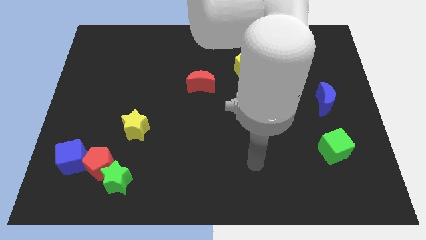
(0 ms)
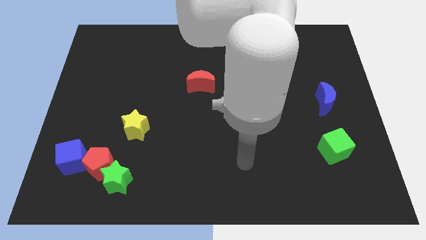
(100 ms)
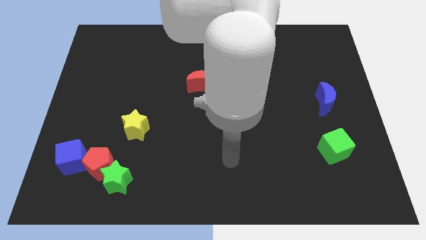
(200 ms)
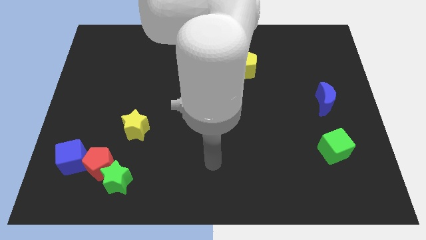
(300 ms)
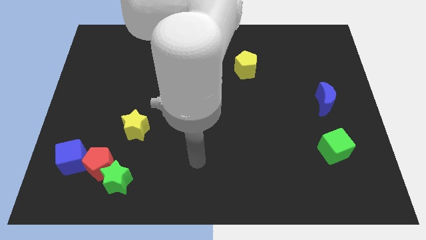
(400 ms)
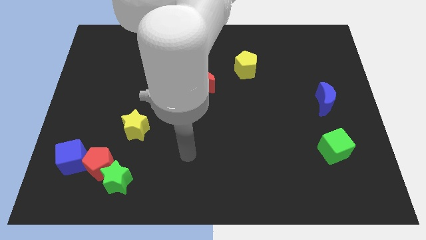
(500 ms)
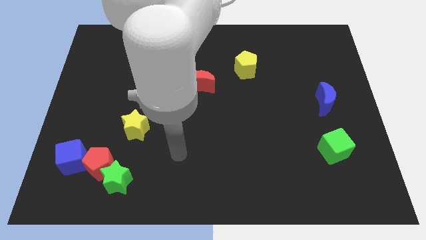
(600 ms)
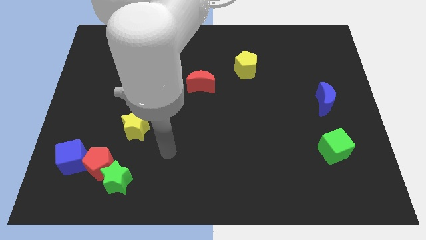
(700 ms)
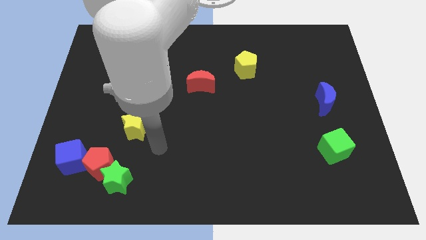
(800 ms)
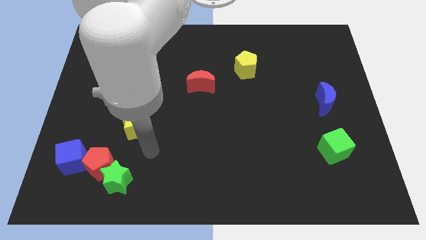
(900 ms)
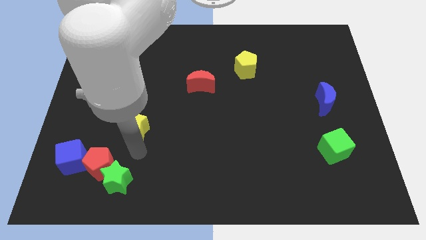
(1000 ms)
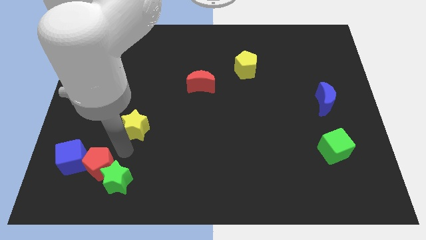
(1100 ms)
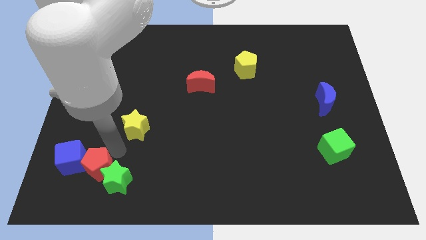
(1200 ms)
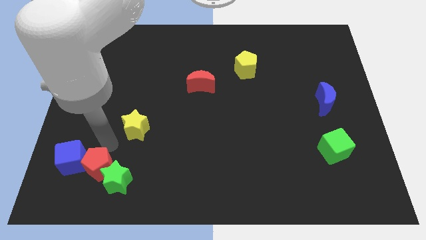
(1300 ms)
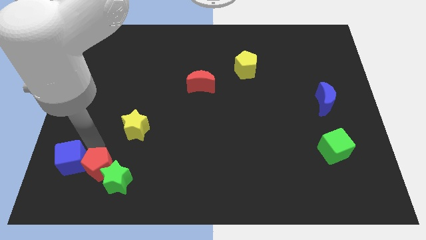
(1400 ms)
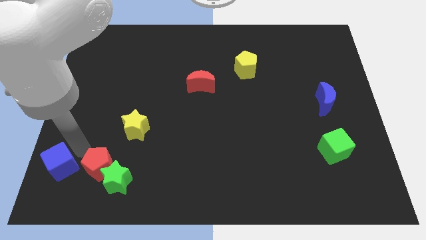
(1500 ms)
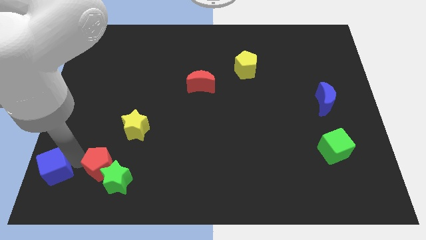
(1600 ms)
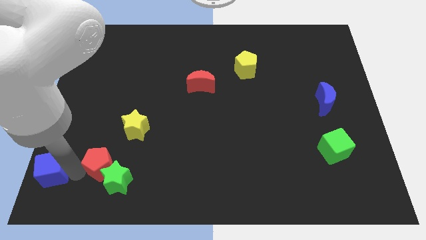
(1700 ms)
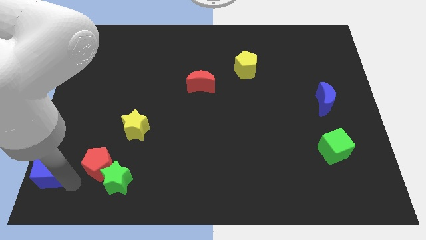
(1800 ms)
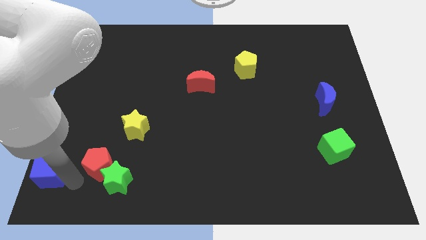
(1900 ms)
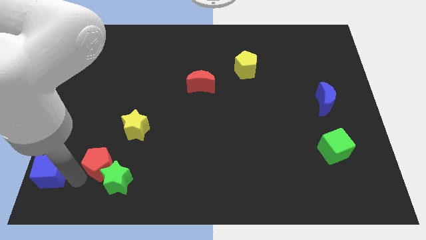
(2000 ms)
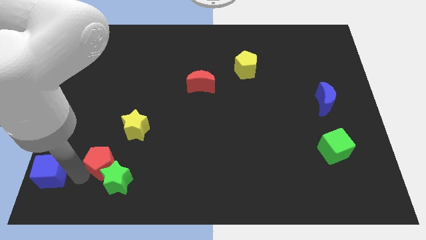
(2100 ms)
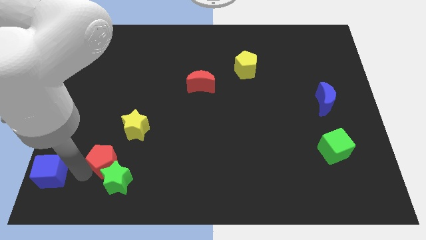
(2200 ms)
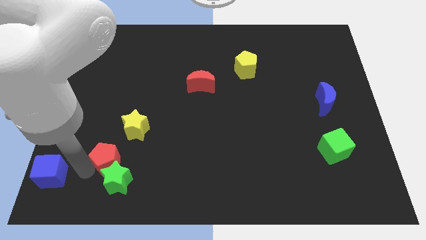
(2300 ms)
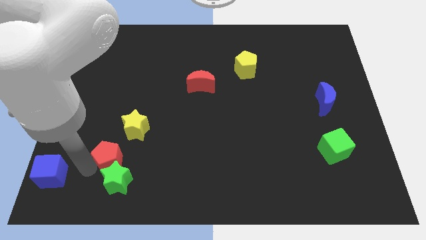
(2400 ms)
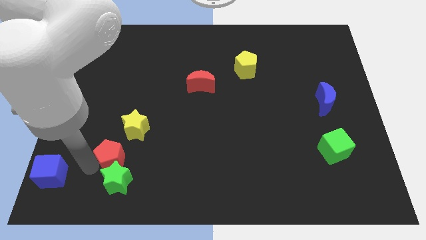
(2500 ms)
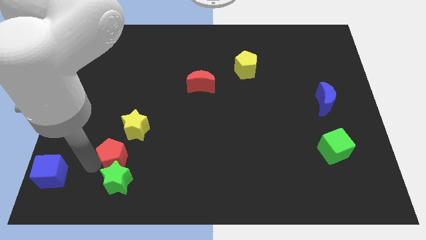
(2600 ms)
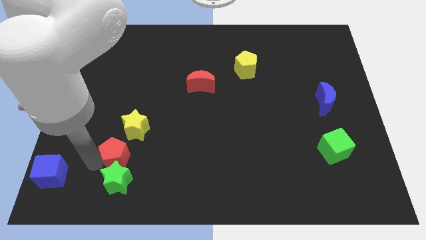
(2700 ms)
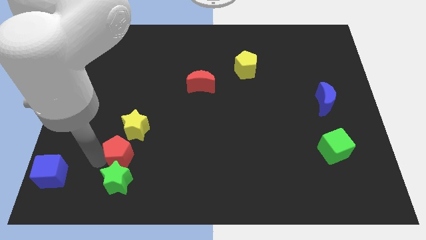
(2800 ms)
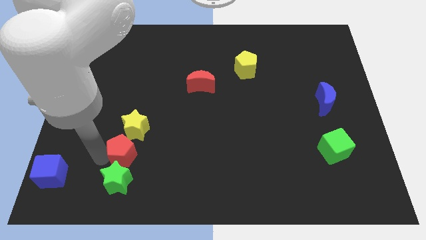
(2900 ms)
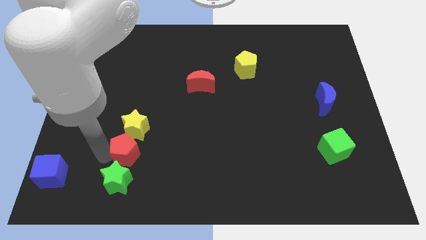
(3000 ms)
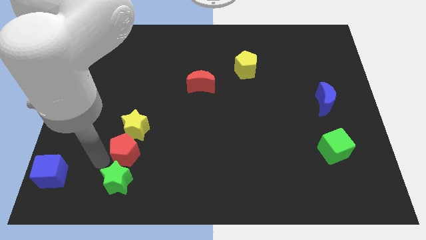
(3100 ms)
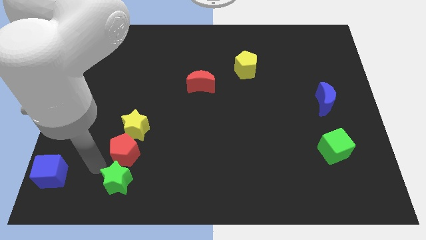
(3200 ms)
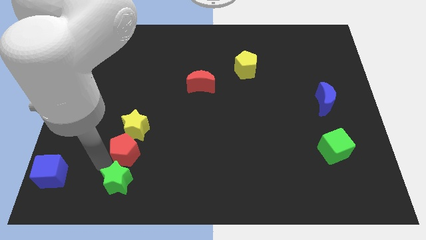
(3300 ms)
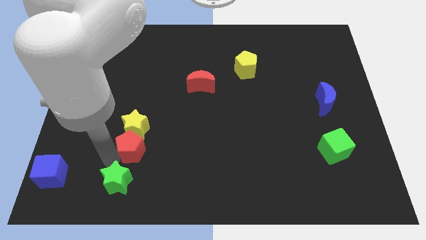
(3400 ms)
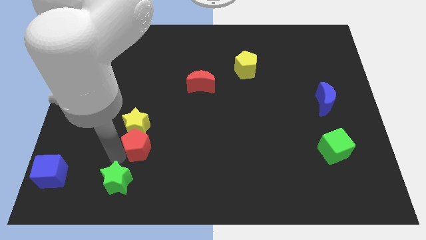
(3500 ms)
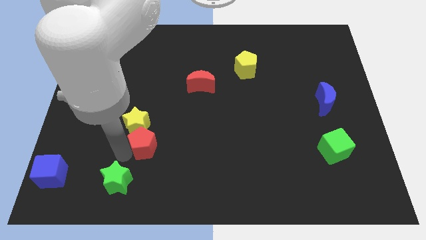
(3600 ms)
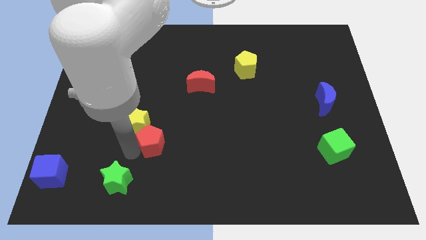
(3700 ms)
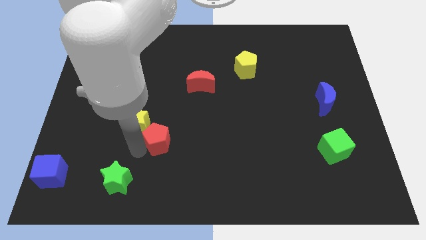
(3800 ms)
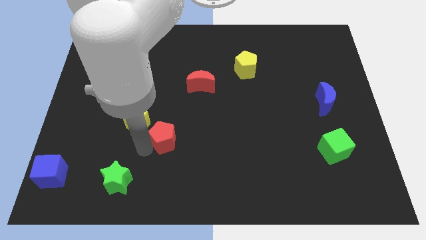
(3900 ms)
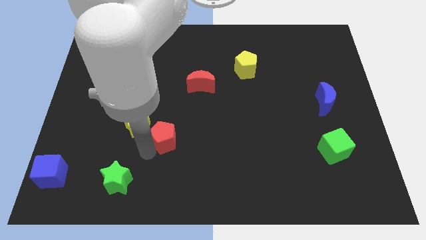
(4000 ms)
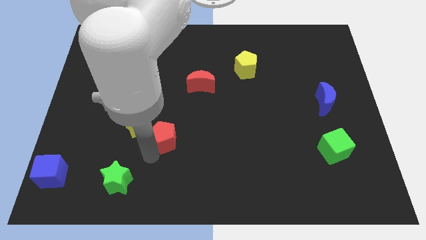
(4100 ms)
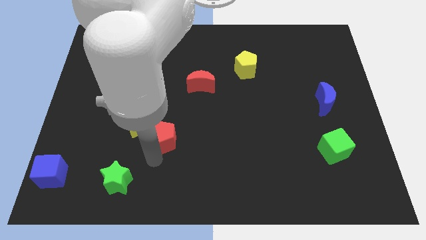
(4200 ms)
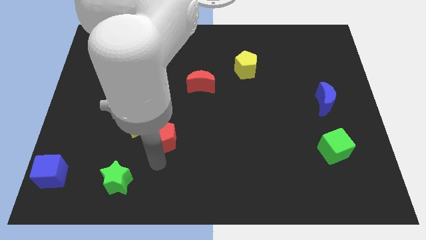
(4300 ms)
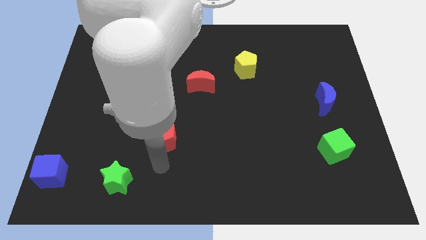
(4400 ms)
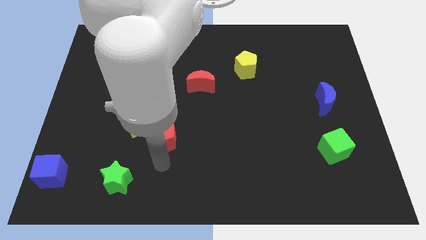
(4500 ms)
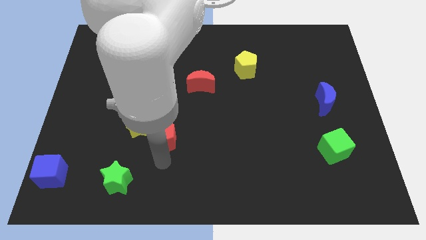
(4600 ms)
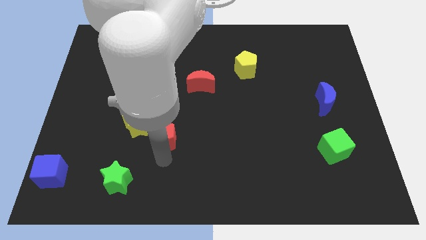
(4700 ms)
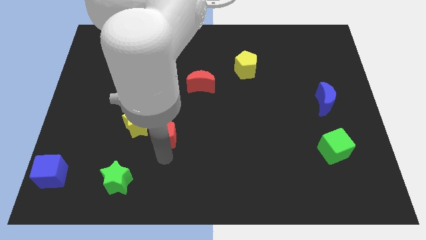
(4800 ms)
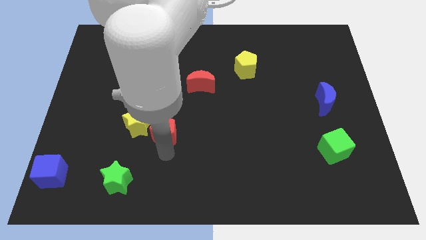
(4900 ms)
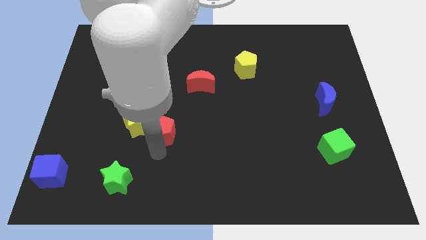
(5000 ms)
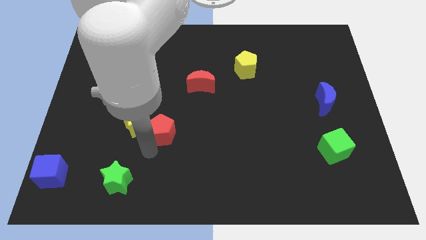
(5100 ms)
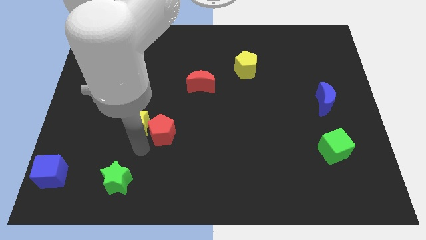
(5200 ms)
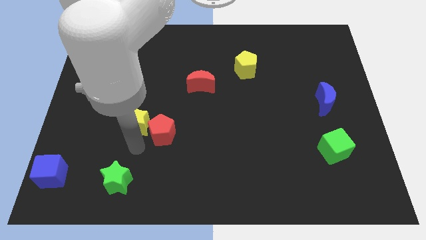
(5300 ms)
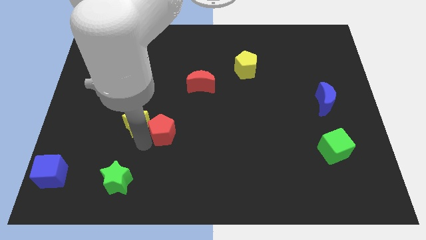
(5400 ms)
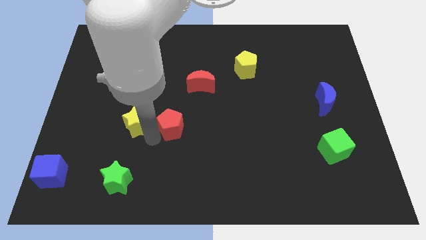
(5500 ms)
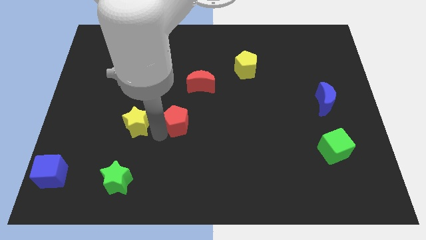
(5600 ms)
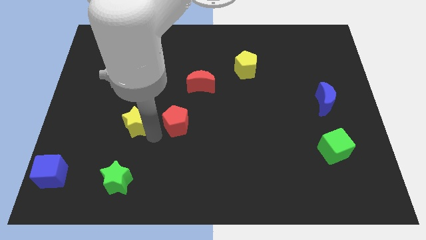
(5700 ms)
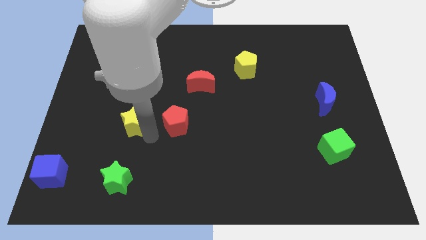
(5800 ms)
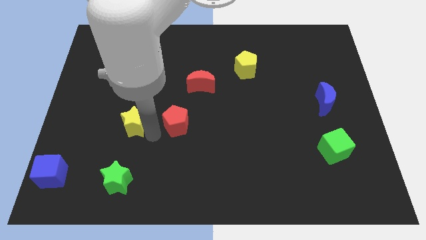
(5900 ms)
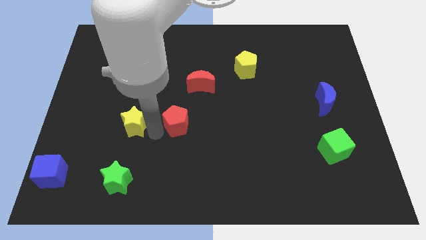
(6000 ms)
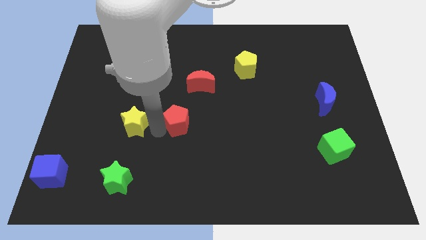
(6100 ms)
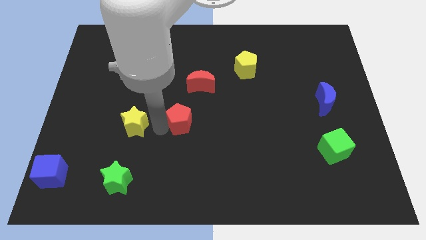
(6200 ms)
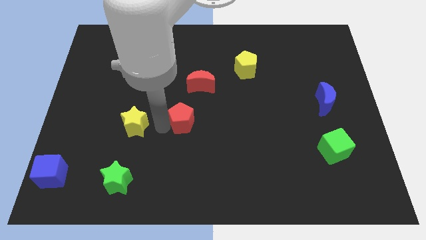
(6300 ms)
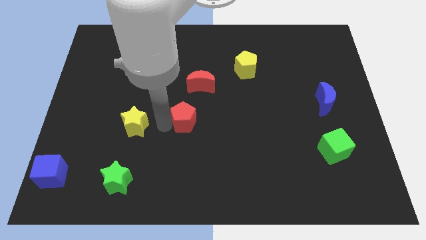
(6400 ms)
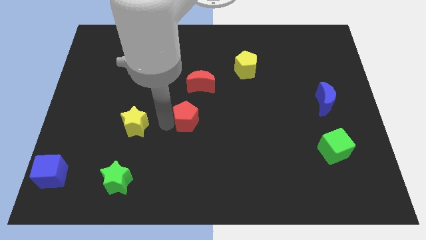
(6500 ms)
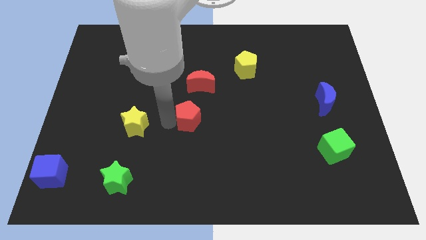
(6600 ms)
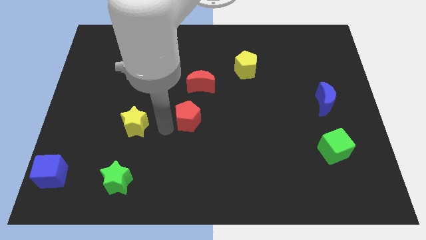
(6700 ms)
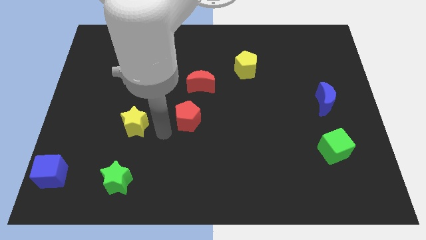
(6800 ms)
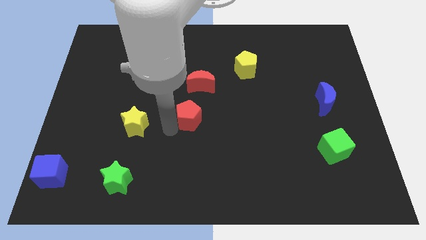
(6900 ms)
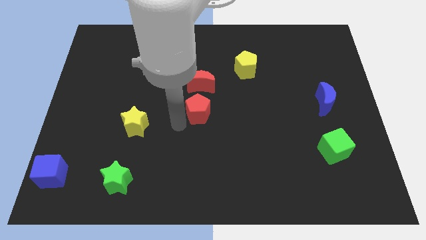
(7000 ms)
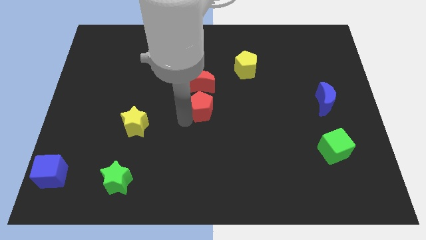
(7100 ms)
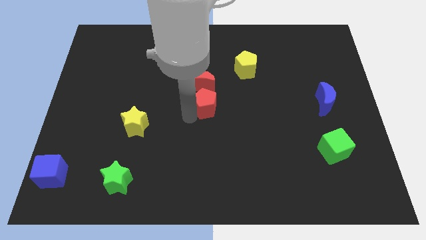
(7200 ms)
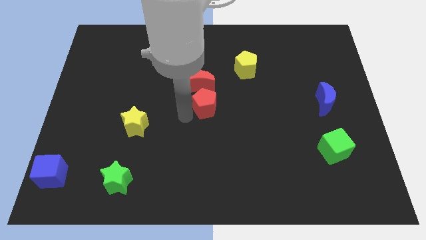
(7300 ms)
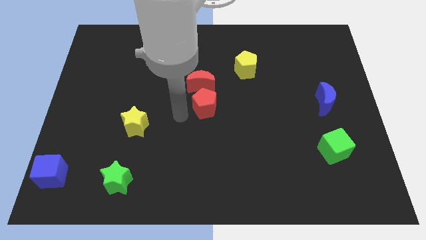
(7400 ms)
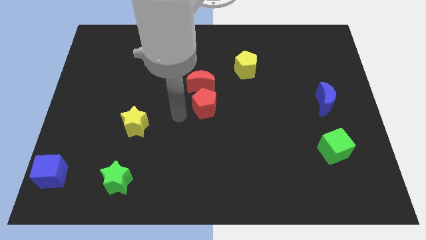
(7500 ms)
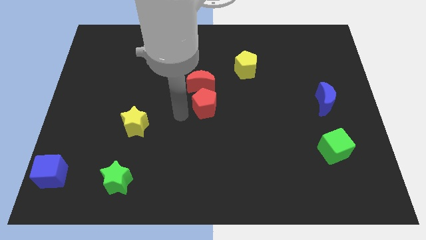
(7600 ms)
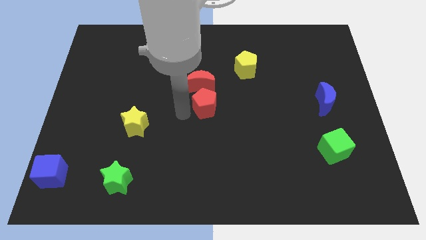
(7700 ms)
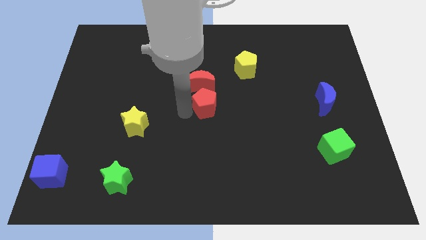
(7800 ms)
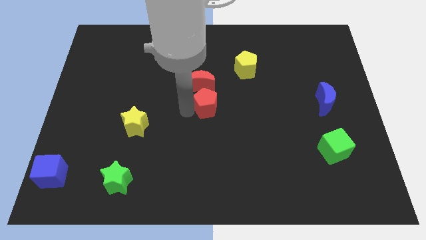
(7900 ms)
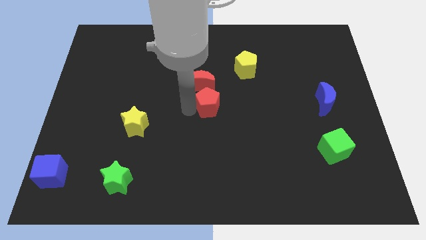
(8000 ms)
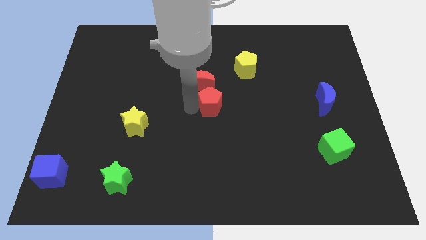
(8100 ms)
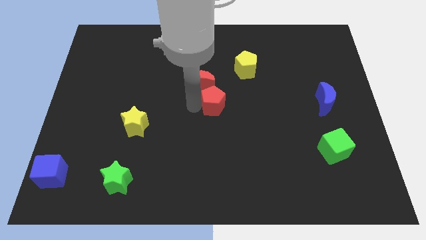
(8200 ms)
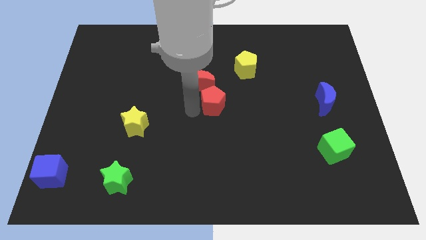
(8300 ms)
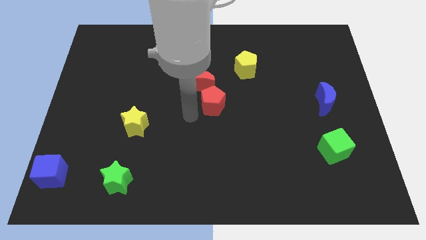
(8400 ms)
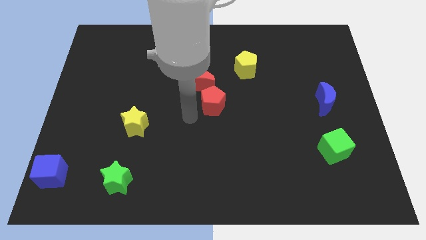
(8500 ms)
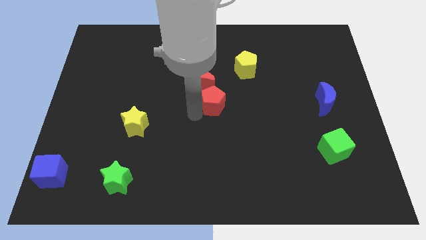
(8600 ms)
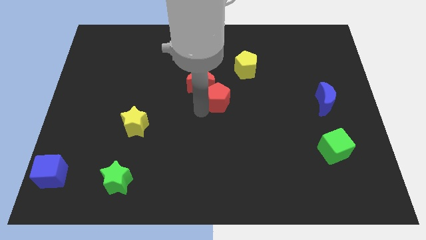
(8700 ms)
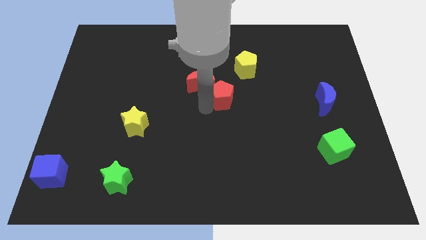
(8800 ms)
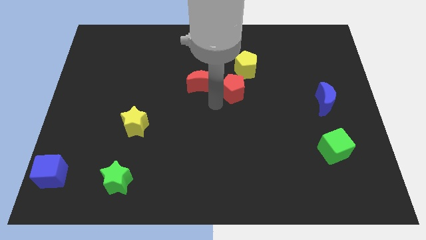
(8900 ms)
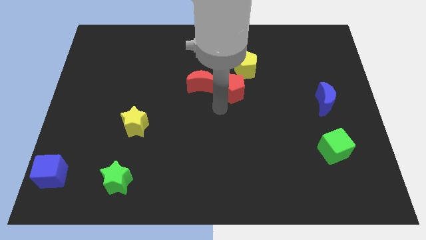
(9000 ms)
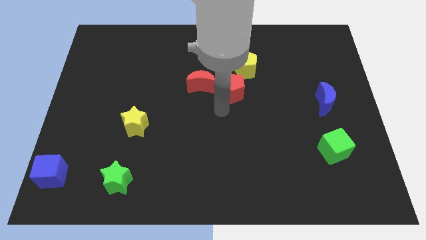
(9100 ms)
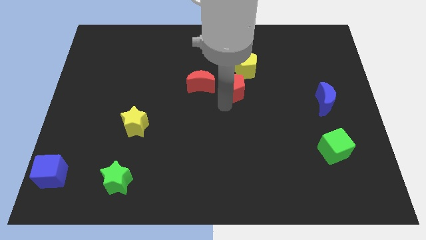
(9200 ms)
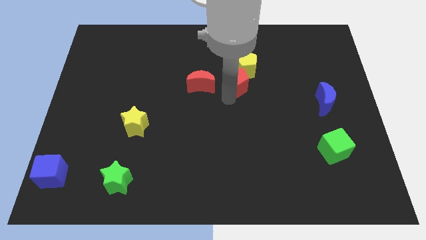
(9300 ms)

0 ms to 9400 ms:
put the red pentagon next to the yellow pentagon
